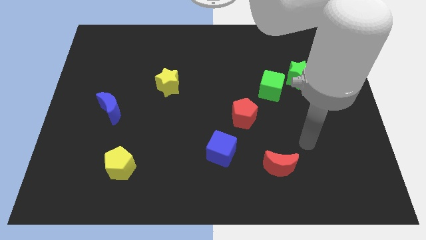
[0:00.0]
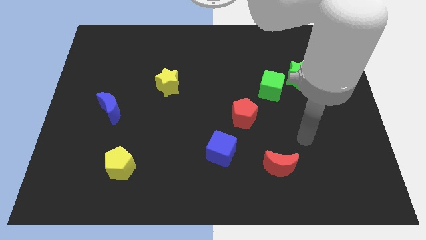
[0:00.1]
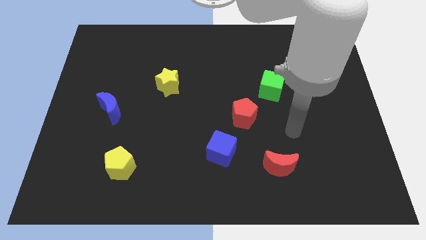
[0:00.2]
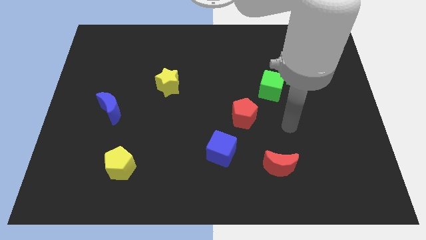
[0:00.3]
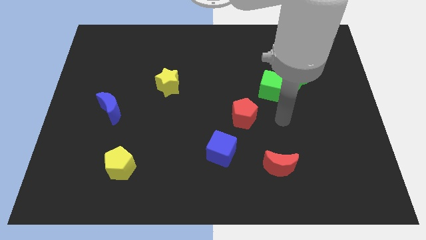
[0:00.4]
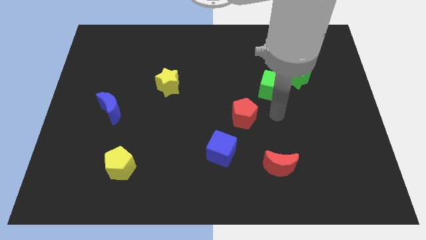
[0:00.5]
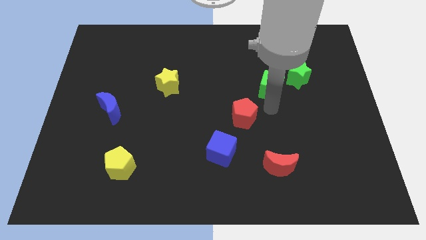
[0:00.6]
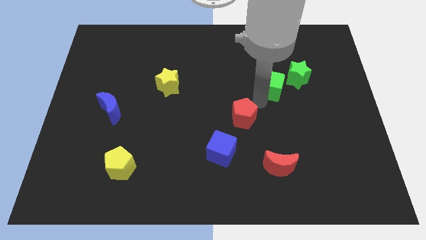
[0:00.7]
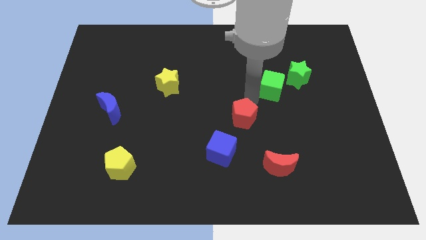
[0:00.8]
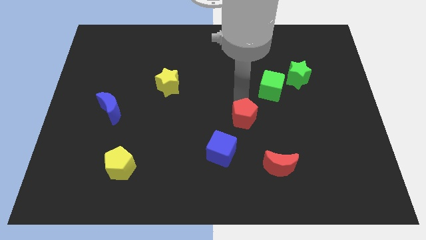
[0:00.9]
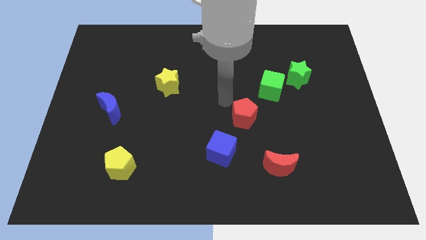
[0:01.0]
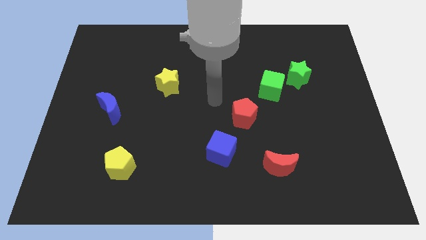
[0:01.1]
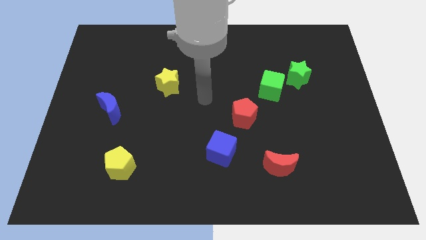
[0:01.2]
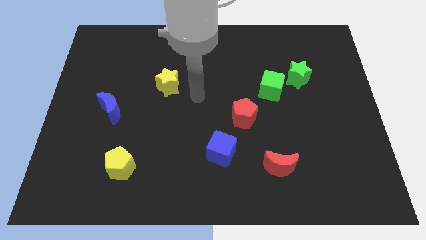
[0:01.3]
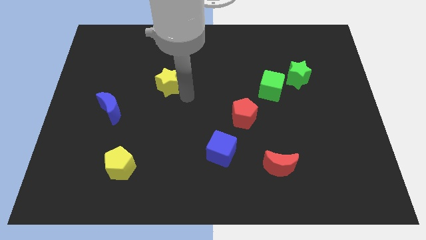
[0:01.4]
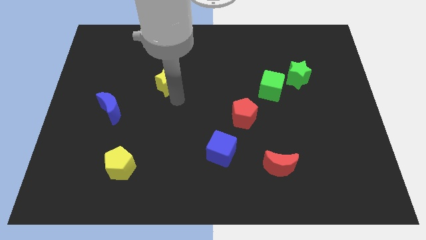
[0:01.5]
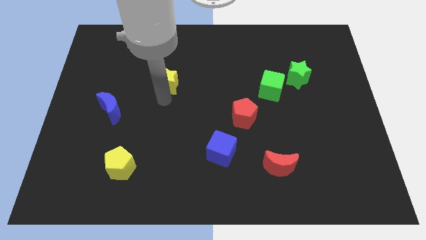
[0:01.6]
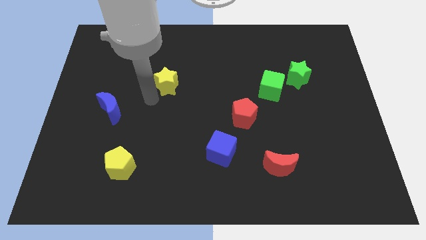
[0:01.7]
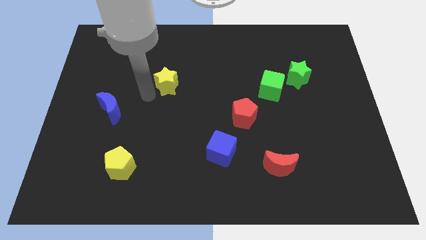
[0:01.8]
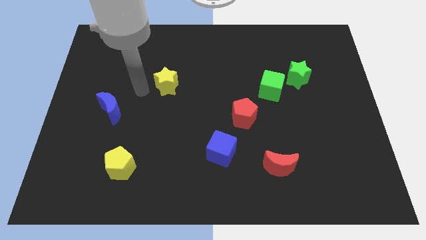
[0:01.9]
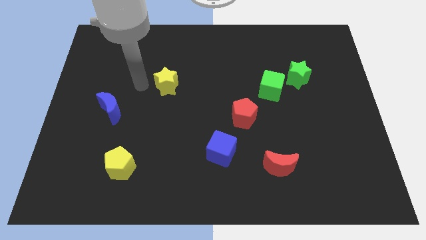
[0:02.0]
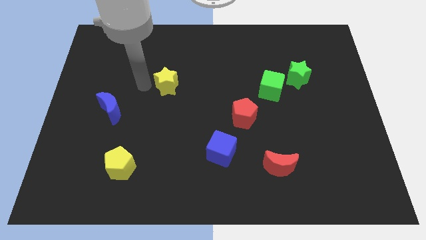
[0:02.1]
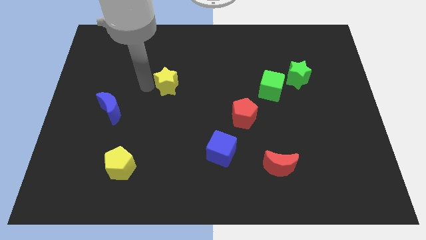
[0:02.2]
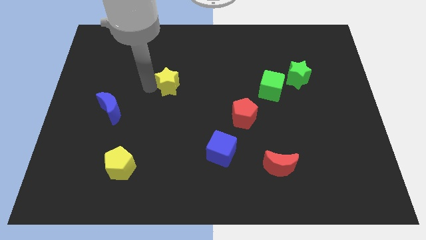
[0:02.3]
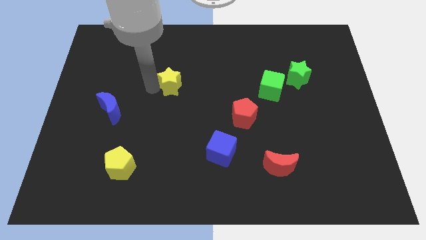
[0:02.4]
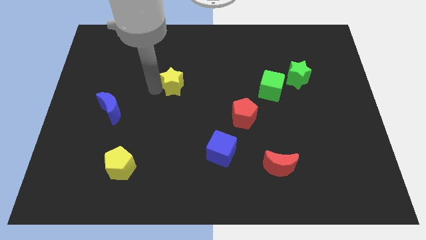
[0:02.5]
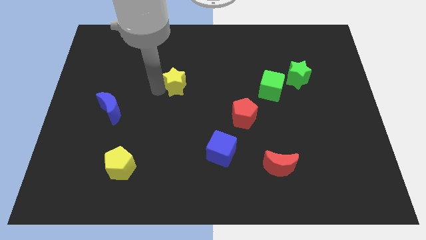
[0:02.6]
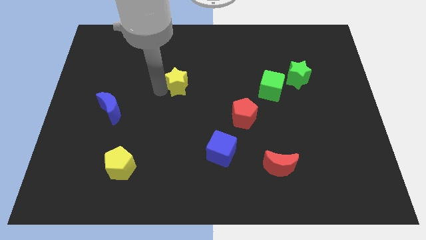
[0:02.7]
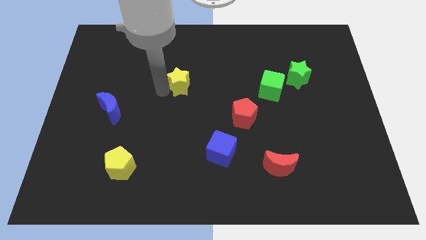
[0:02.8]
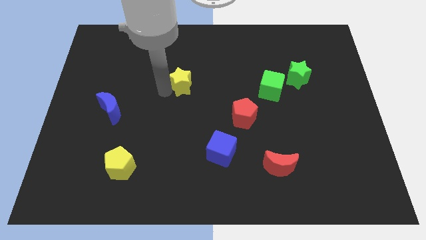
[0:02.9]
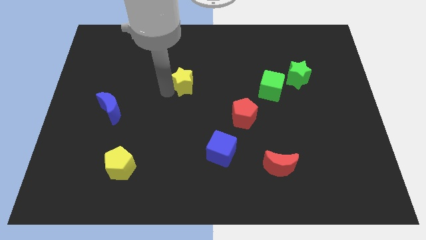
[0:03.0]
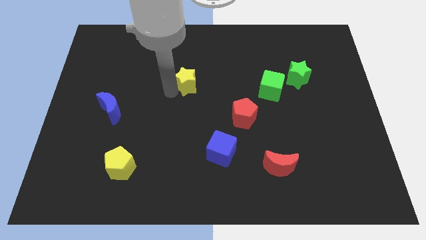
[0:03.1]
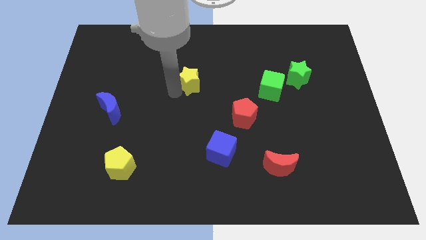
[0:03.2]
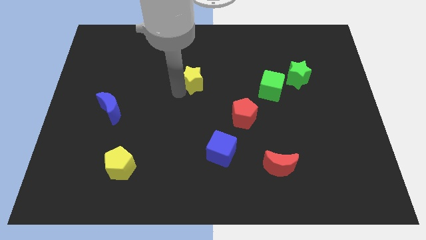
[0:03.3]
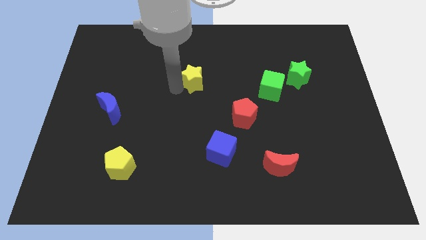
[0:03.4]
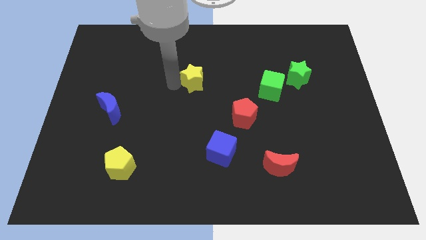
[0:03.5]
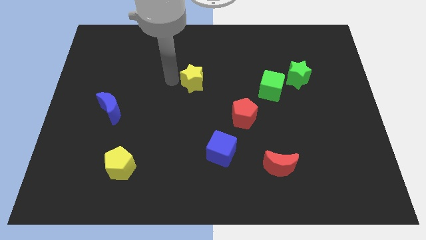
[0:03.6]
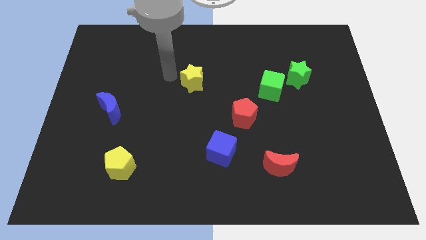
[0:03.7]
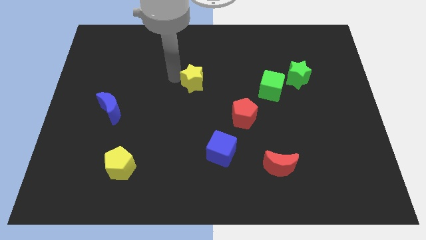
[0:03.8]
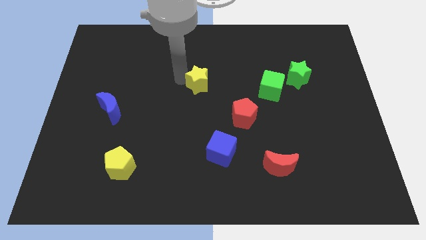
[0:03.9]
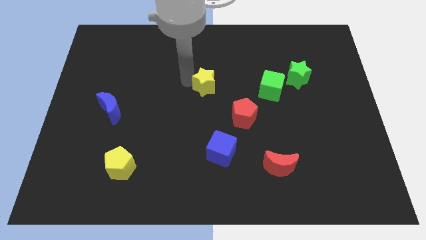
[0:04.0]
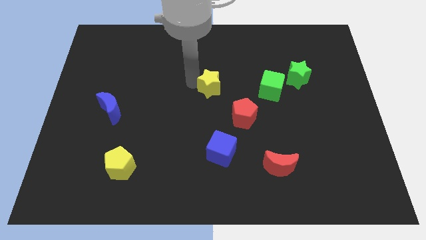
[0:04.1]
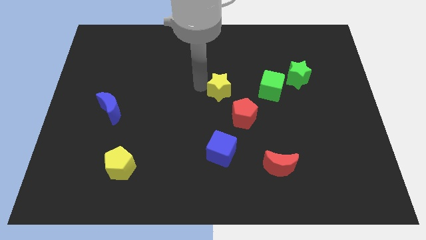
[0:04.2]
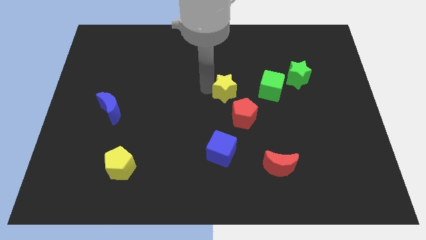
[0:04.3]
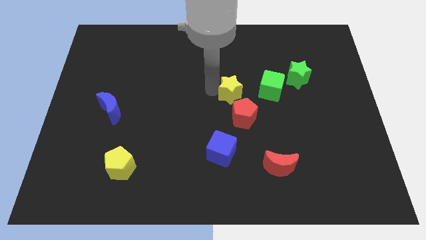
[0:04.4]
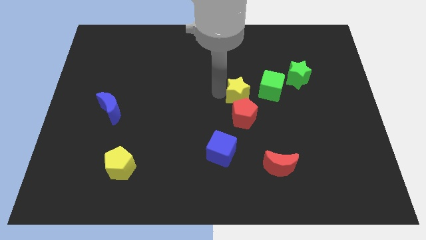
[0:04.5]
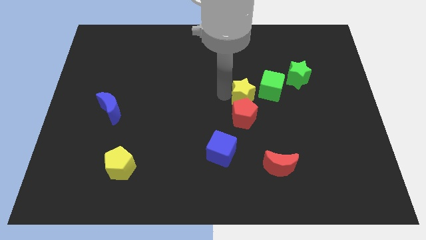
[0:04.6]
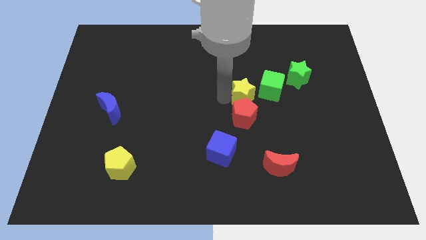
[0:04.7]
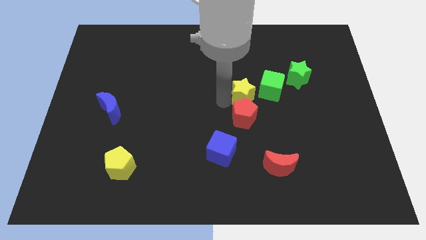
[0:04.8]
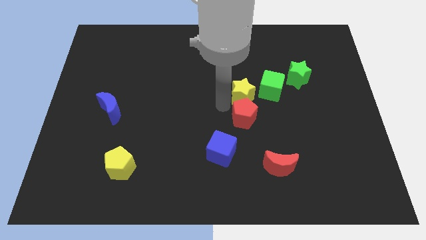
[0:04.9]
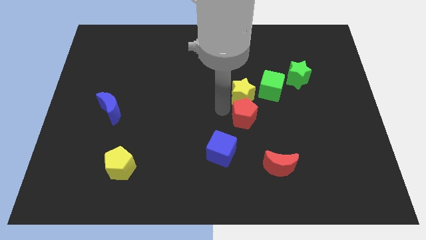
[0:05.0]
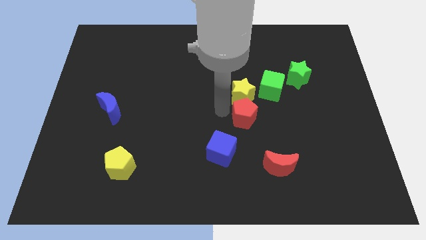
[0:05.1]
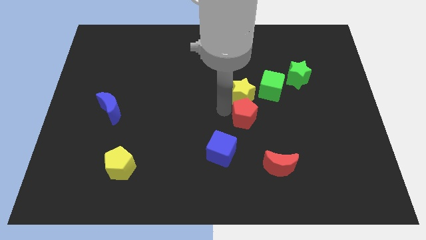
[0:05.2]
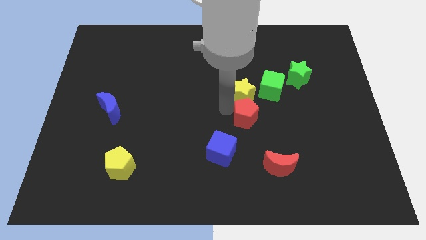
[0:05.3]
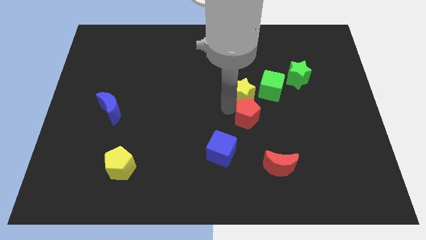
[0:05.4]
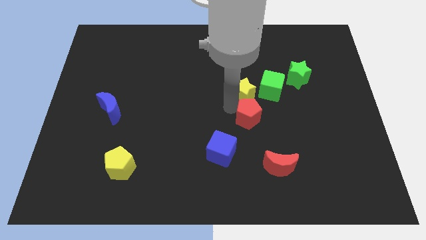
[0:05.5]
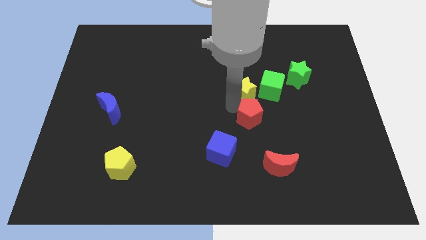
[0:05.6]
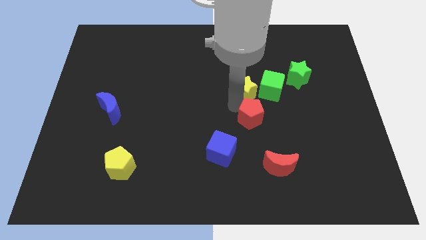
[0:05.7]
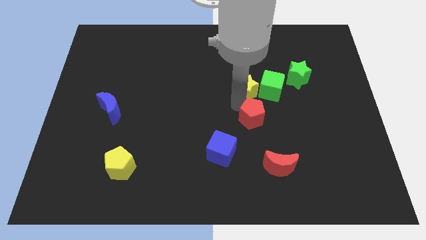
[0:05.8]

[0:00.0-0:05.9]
move the yellow star close to the green cube

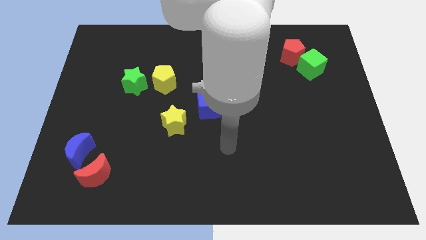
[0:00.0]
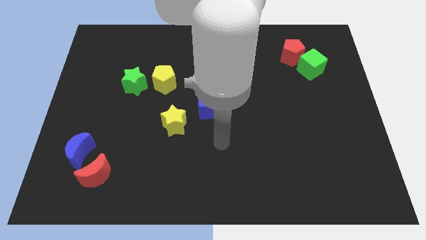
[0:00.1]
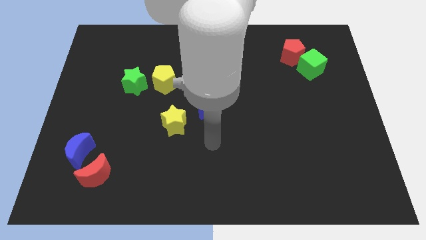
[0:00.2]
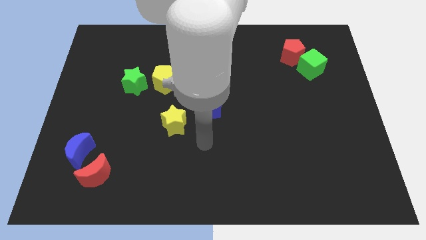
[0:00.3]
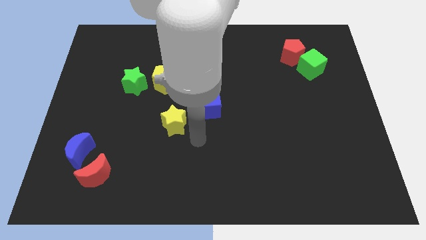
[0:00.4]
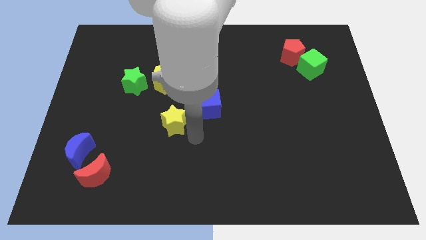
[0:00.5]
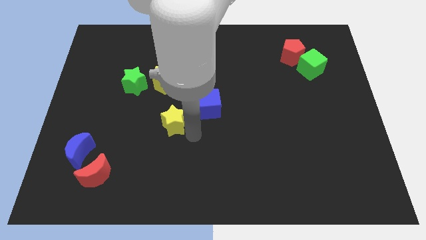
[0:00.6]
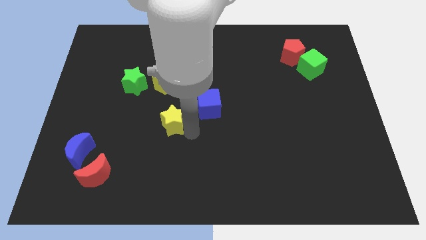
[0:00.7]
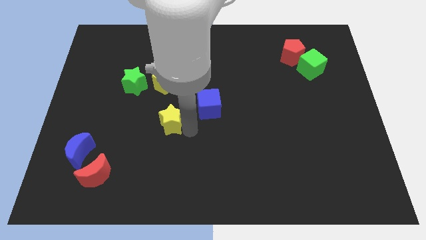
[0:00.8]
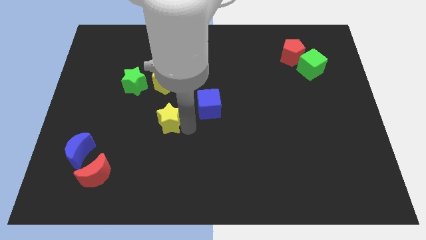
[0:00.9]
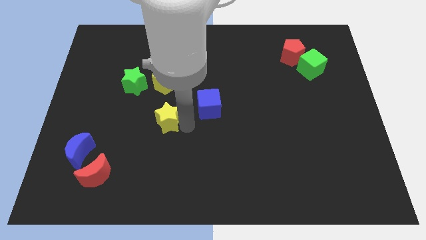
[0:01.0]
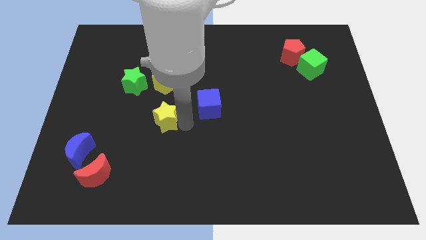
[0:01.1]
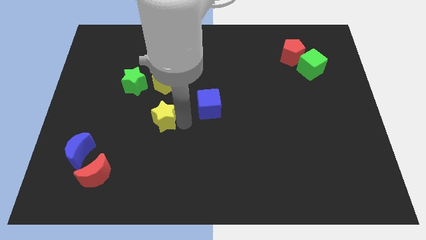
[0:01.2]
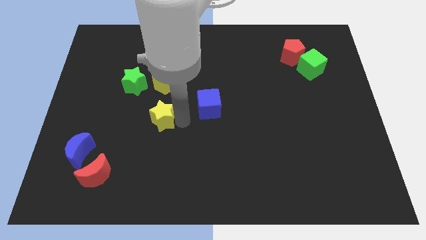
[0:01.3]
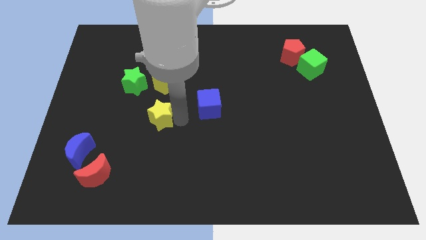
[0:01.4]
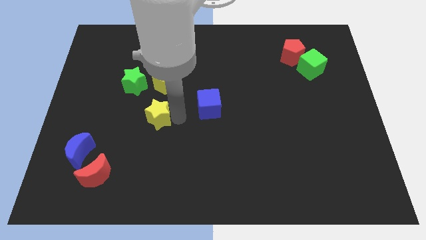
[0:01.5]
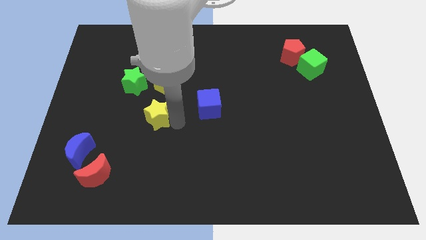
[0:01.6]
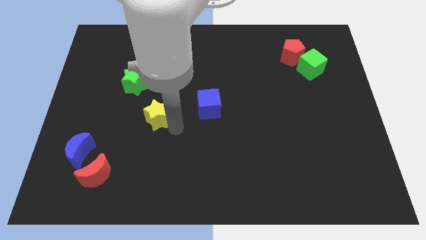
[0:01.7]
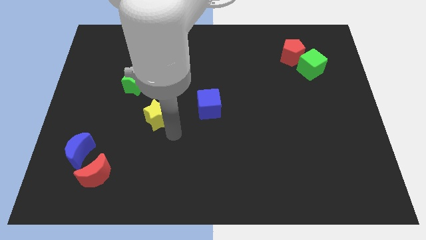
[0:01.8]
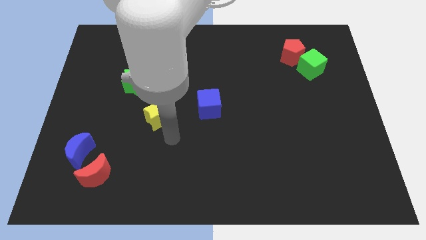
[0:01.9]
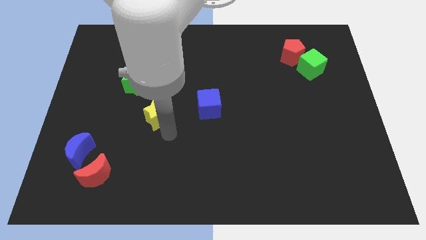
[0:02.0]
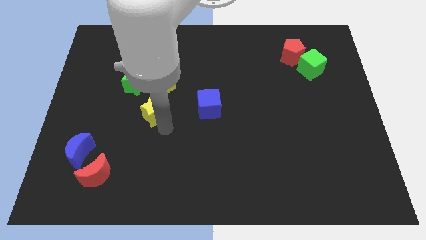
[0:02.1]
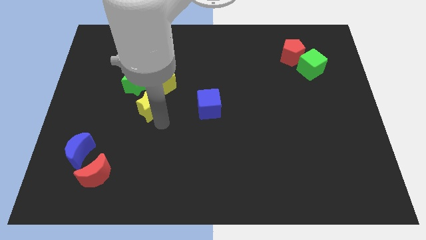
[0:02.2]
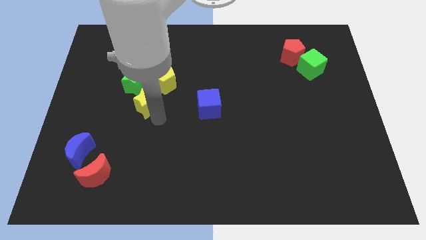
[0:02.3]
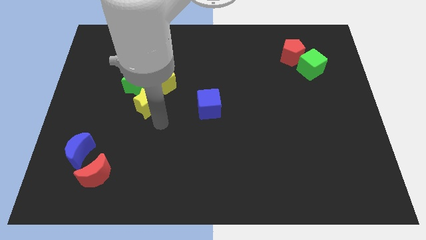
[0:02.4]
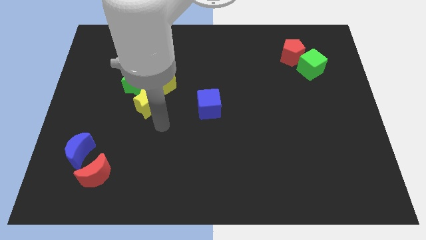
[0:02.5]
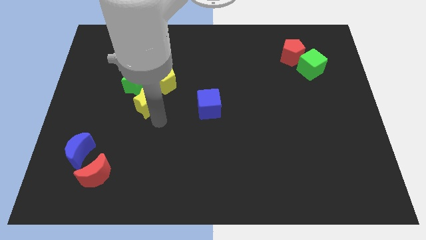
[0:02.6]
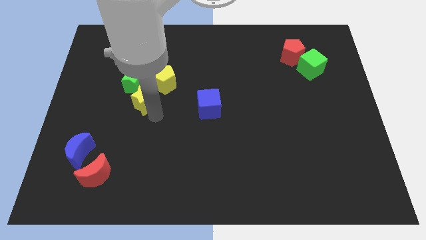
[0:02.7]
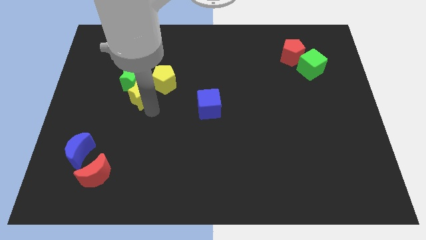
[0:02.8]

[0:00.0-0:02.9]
slide the yellow star towards the green star
